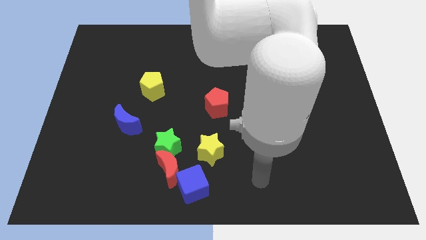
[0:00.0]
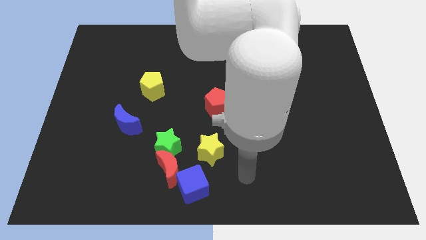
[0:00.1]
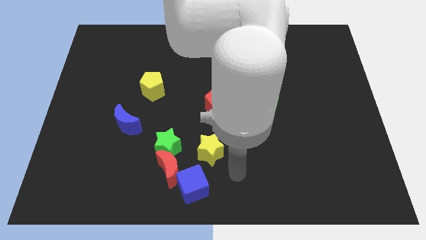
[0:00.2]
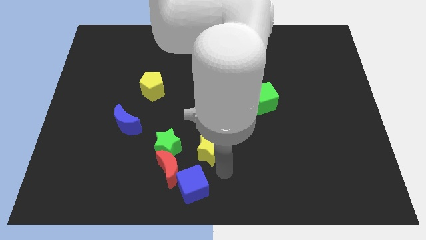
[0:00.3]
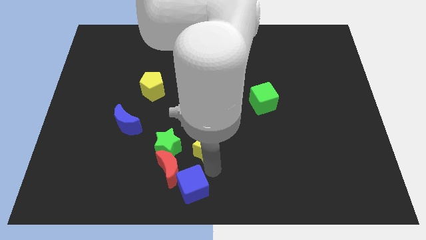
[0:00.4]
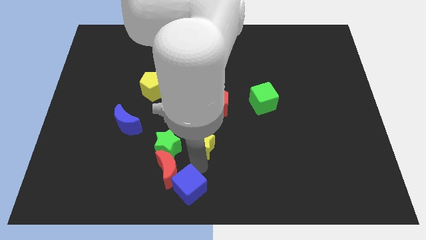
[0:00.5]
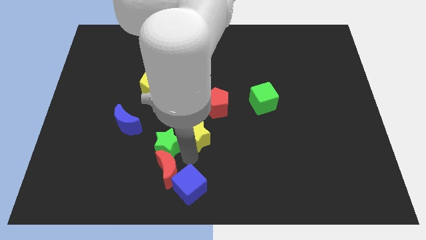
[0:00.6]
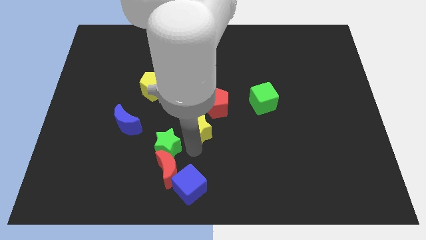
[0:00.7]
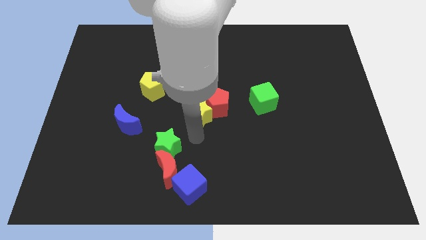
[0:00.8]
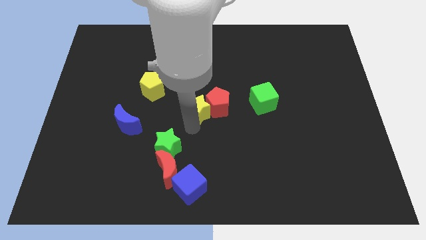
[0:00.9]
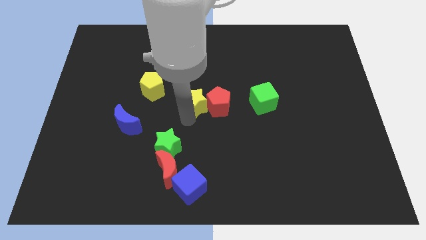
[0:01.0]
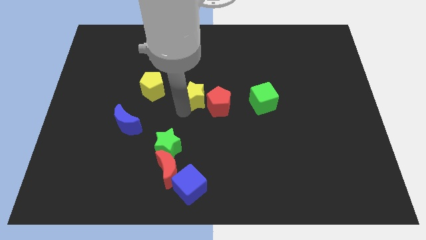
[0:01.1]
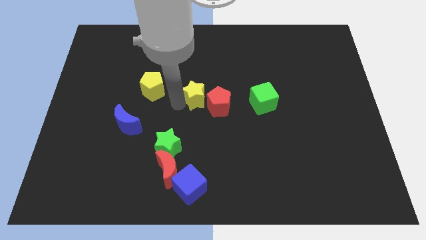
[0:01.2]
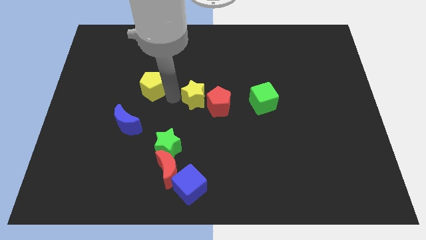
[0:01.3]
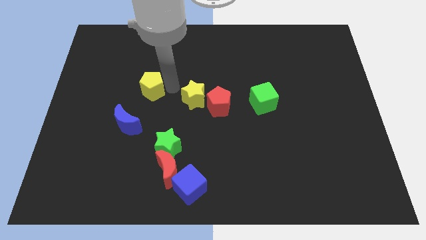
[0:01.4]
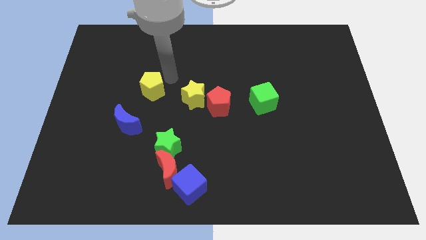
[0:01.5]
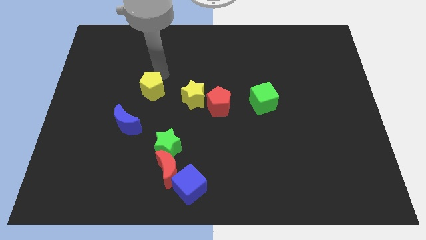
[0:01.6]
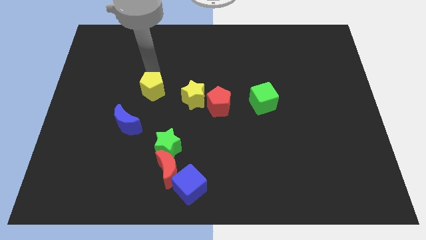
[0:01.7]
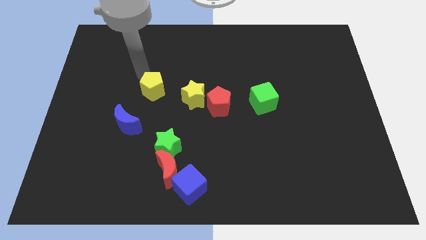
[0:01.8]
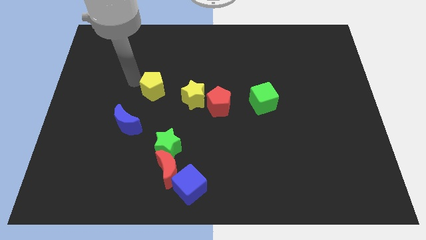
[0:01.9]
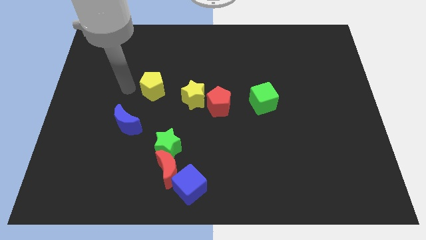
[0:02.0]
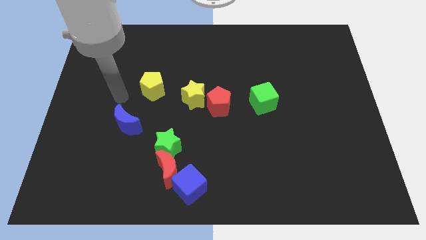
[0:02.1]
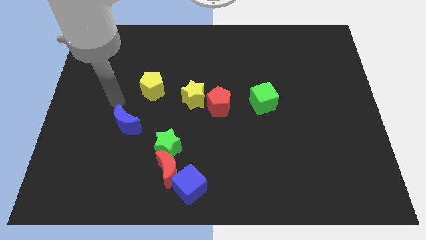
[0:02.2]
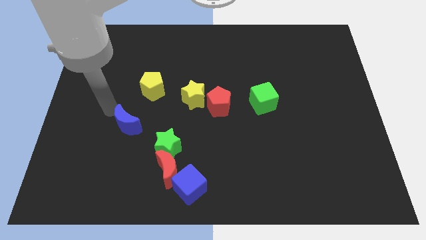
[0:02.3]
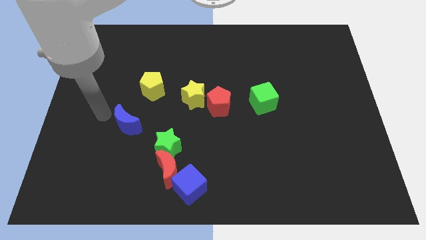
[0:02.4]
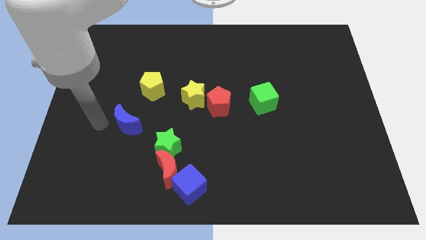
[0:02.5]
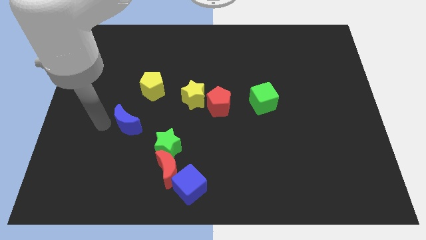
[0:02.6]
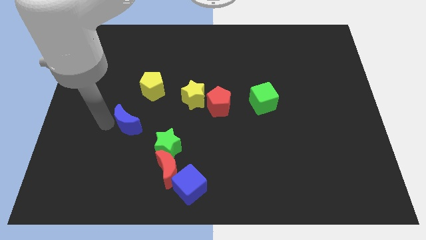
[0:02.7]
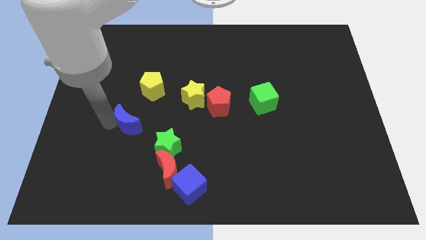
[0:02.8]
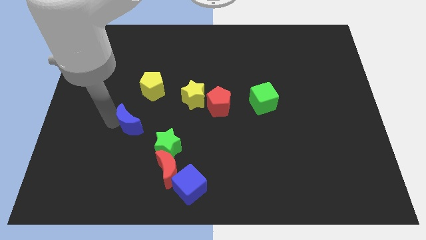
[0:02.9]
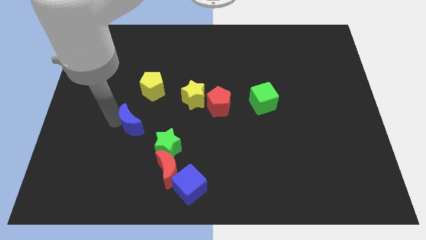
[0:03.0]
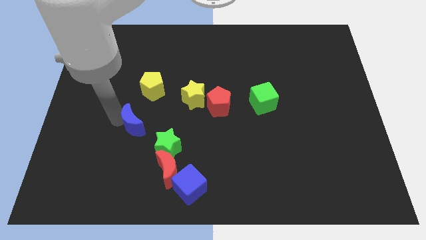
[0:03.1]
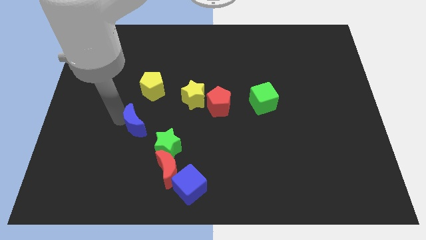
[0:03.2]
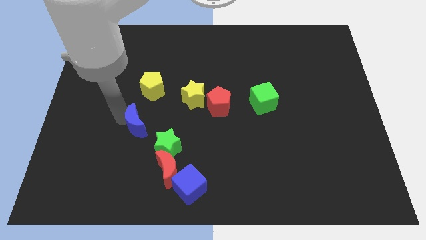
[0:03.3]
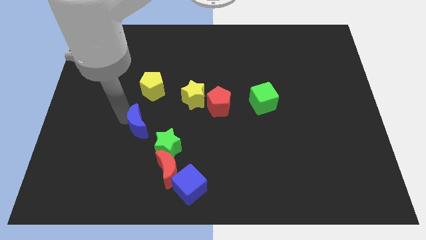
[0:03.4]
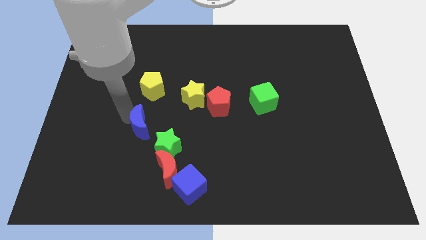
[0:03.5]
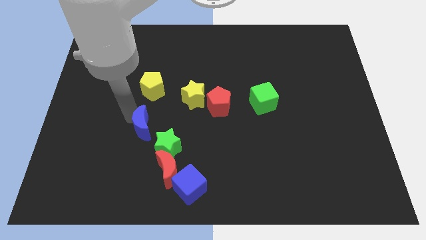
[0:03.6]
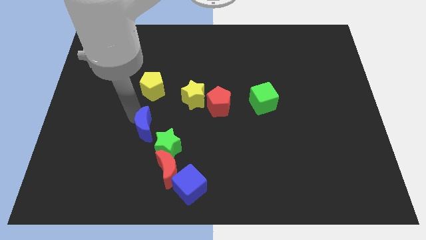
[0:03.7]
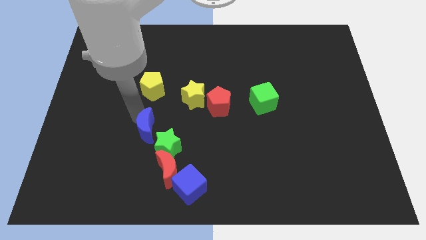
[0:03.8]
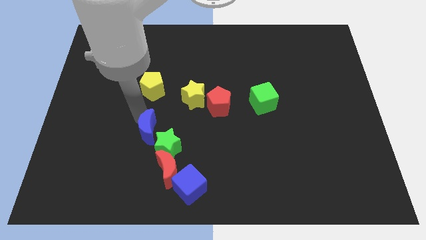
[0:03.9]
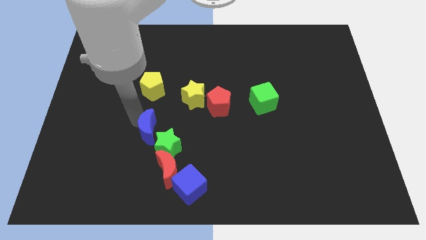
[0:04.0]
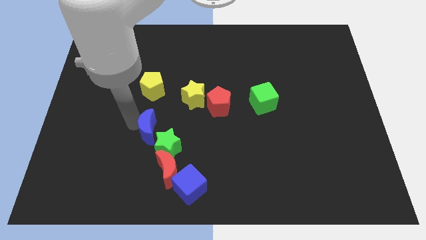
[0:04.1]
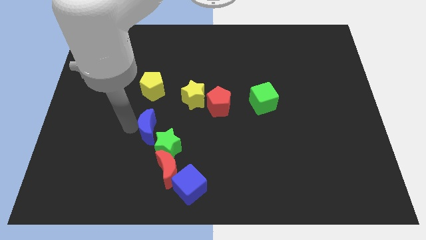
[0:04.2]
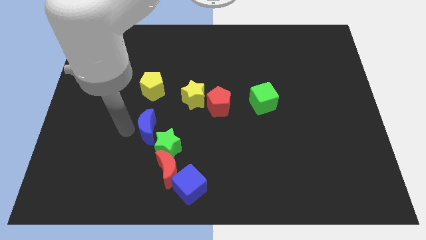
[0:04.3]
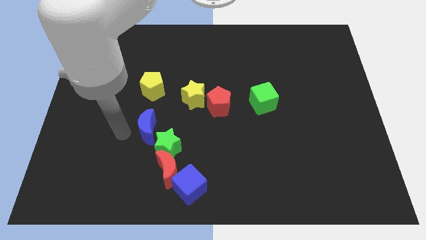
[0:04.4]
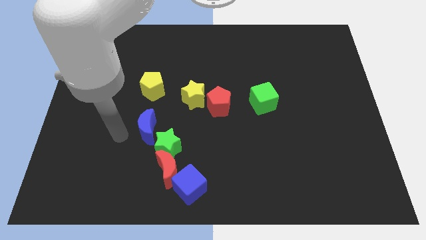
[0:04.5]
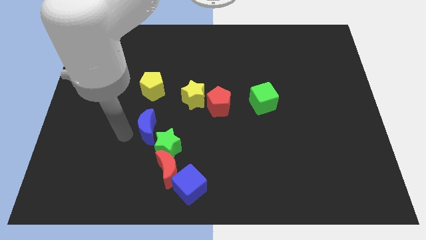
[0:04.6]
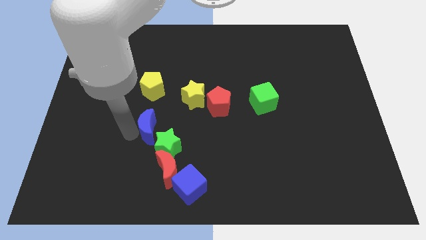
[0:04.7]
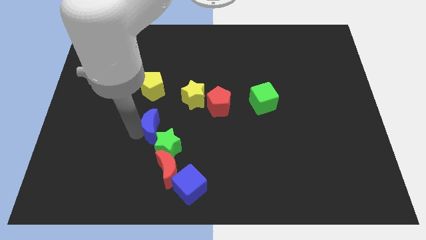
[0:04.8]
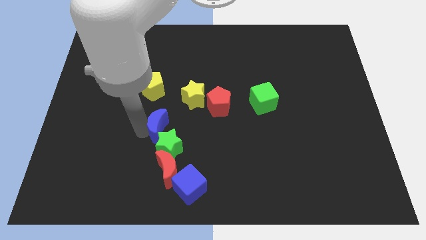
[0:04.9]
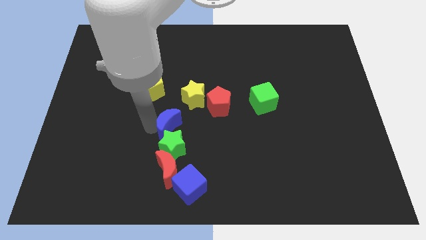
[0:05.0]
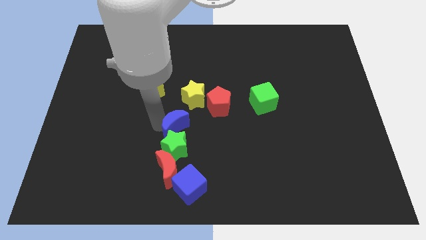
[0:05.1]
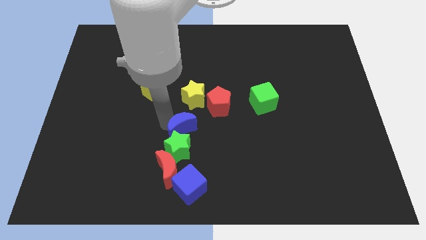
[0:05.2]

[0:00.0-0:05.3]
push the blue moon above the blue cube

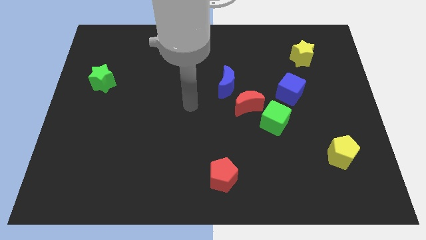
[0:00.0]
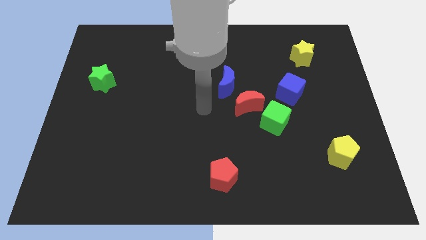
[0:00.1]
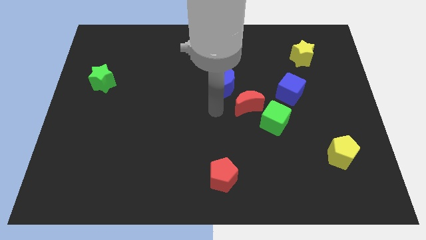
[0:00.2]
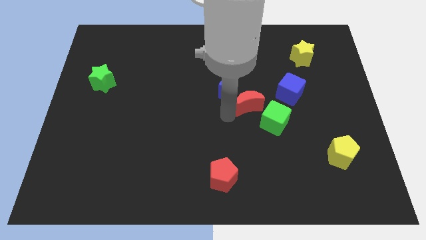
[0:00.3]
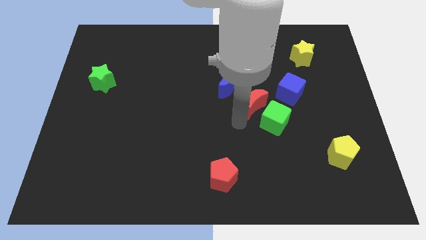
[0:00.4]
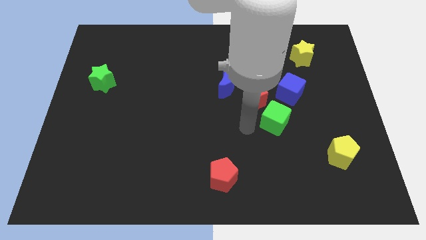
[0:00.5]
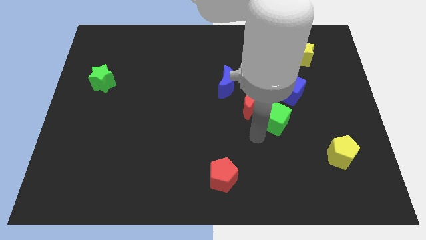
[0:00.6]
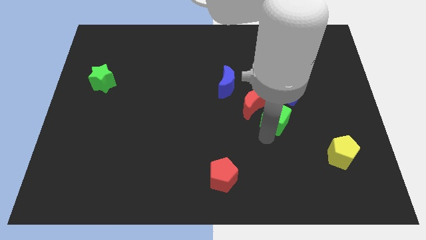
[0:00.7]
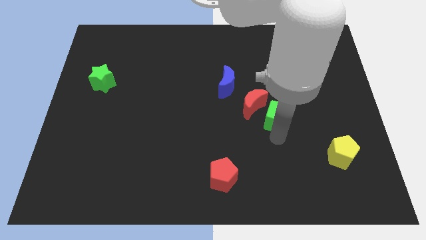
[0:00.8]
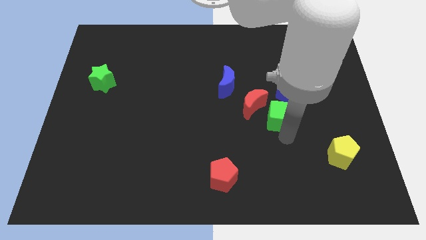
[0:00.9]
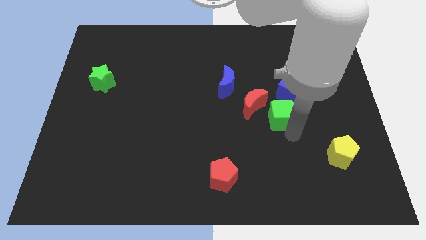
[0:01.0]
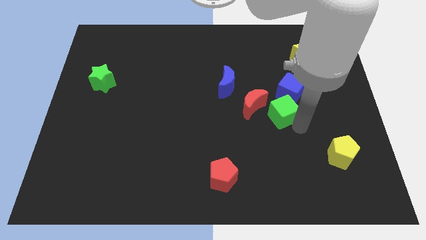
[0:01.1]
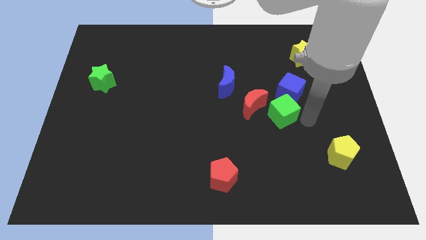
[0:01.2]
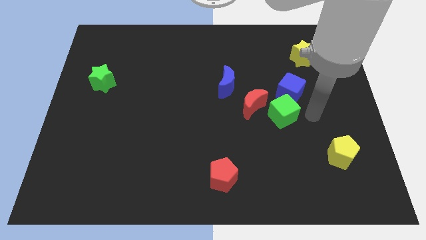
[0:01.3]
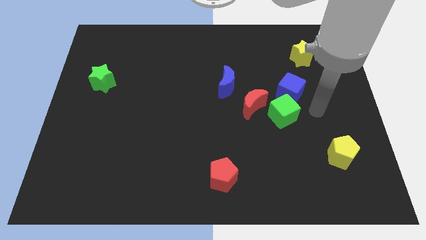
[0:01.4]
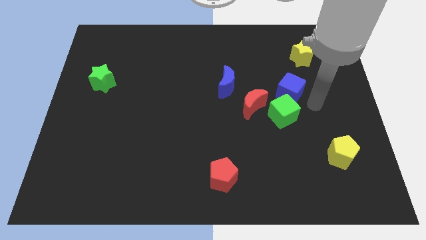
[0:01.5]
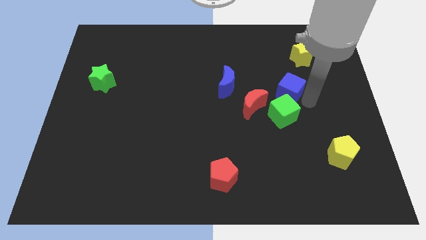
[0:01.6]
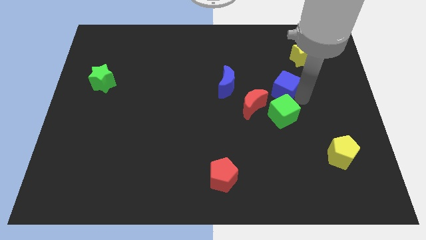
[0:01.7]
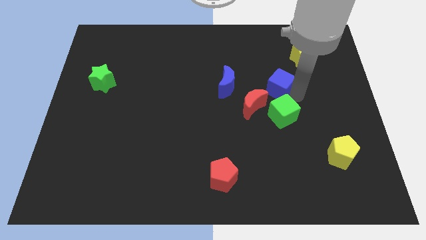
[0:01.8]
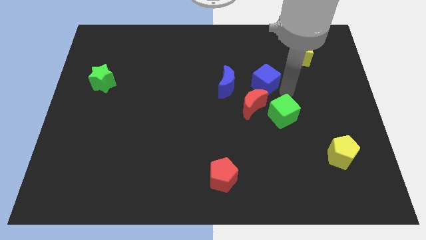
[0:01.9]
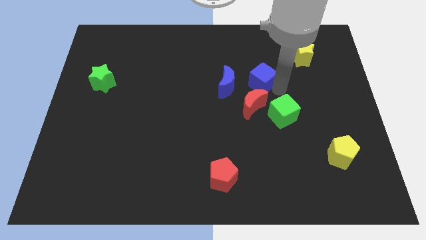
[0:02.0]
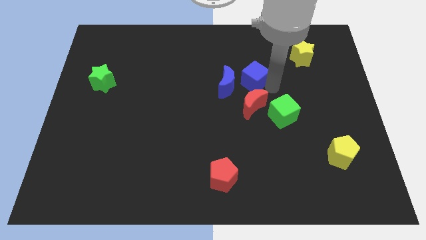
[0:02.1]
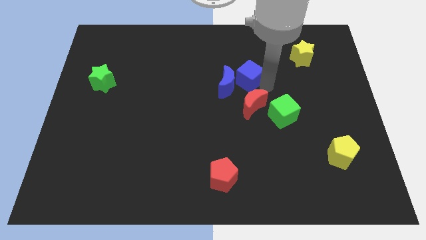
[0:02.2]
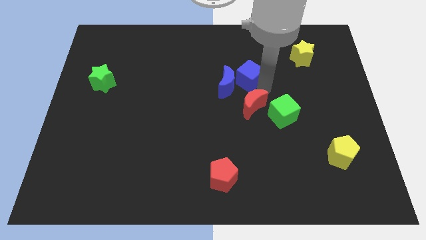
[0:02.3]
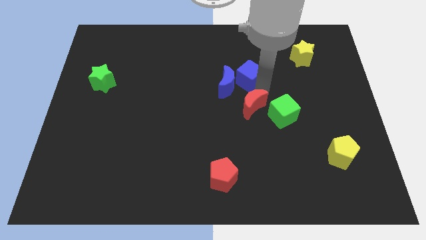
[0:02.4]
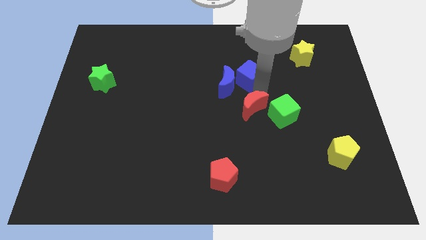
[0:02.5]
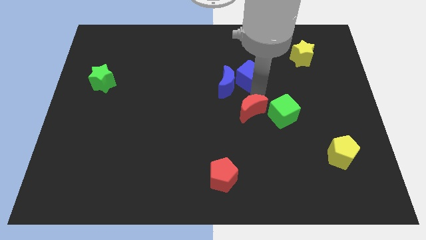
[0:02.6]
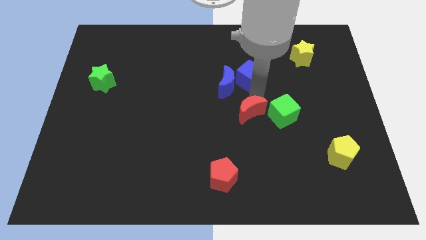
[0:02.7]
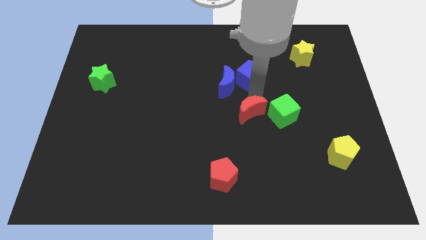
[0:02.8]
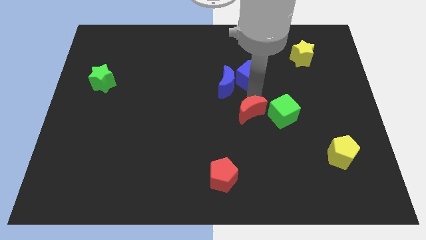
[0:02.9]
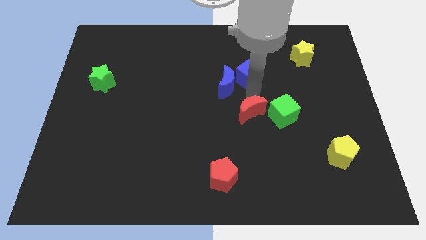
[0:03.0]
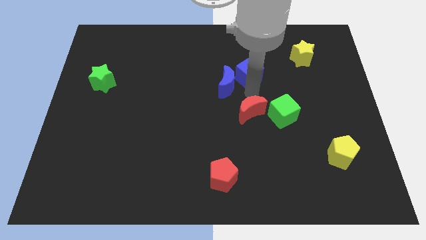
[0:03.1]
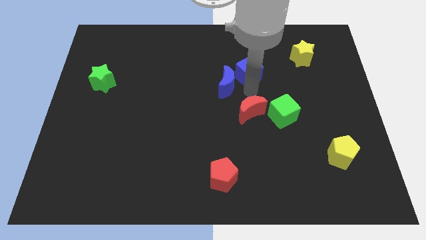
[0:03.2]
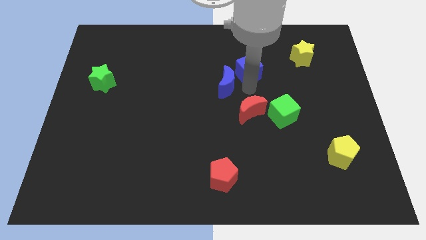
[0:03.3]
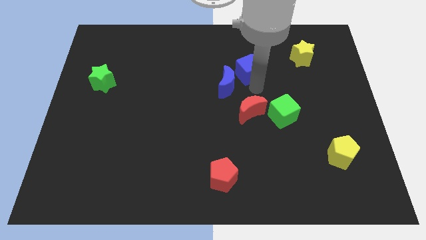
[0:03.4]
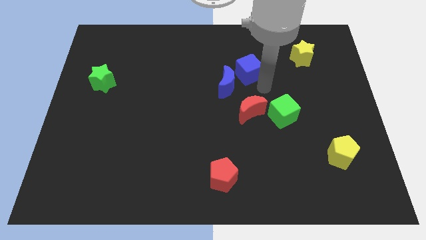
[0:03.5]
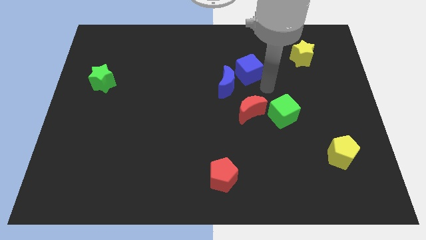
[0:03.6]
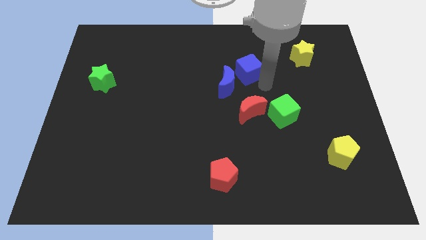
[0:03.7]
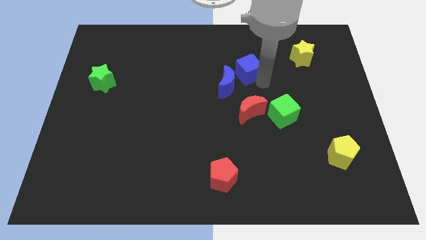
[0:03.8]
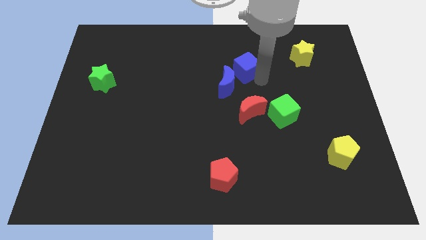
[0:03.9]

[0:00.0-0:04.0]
put the blue cube above the blue moon
